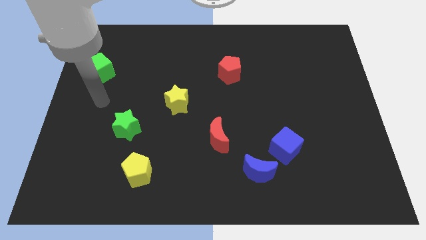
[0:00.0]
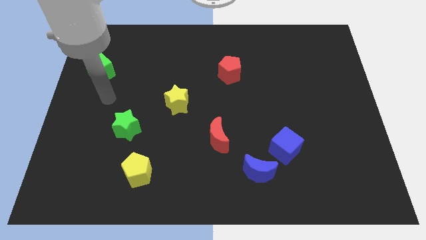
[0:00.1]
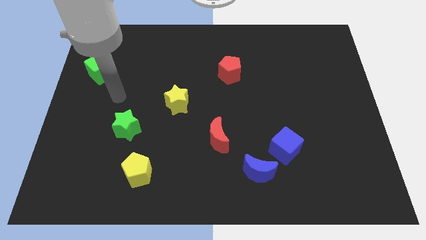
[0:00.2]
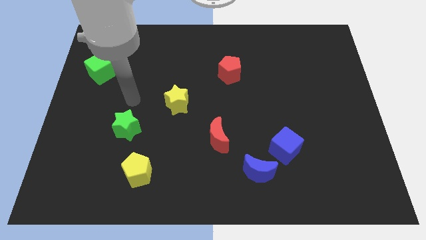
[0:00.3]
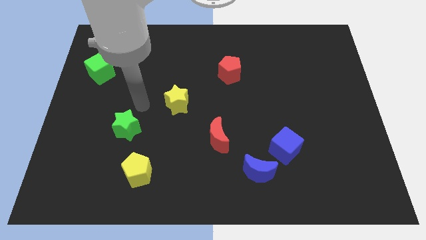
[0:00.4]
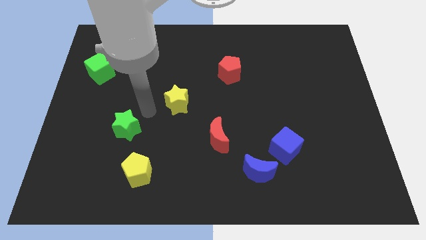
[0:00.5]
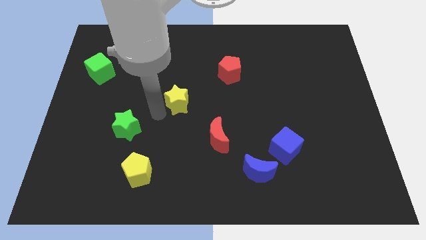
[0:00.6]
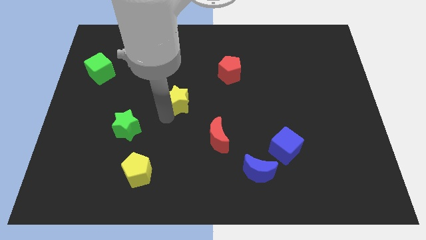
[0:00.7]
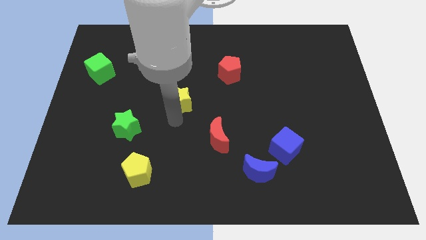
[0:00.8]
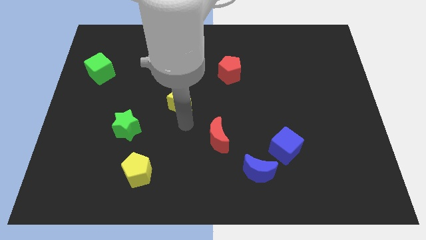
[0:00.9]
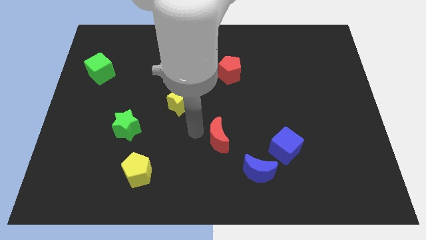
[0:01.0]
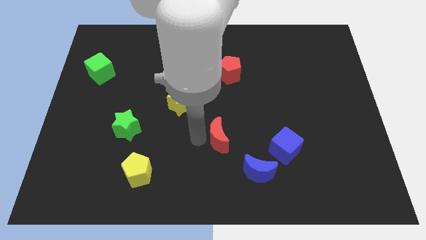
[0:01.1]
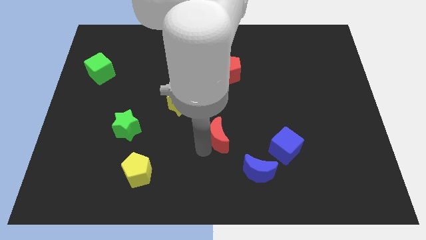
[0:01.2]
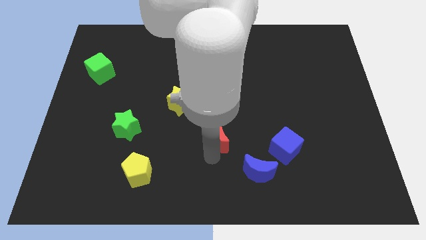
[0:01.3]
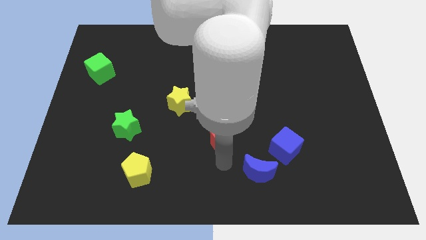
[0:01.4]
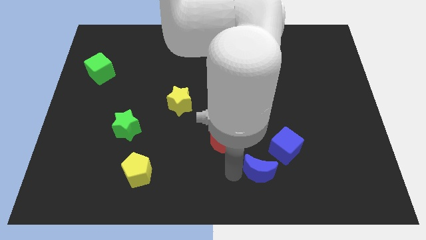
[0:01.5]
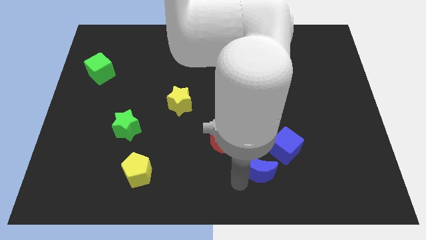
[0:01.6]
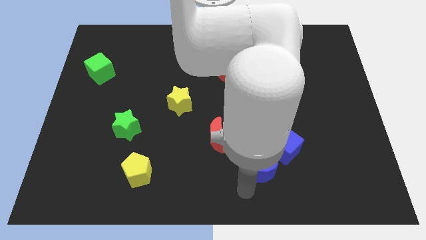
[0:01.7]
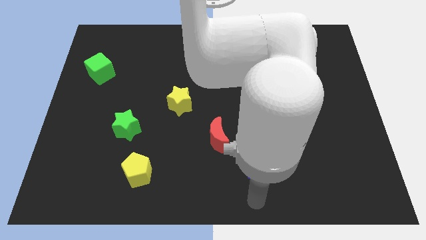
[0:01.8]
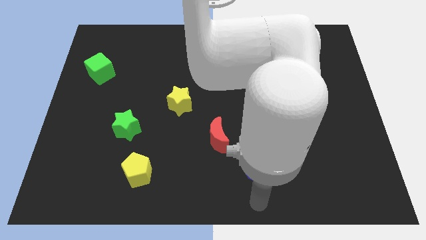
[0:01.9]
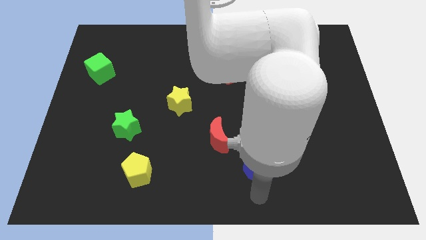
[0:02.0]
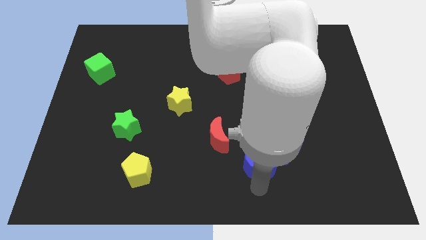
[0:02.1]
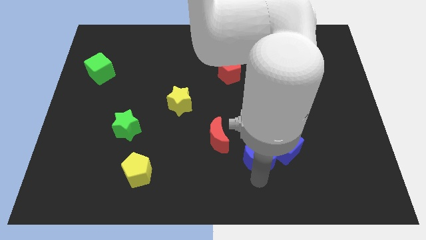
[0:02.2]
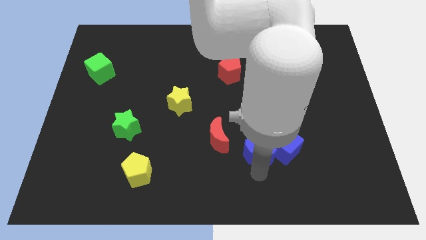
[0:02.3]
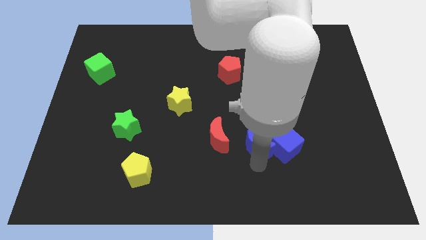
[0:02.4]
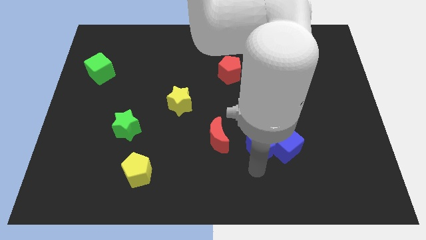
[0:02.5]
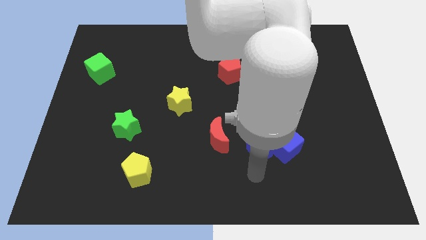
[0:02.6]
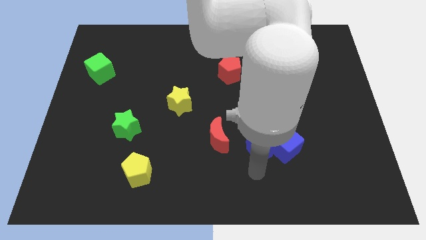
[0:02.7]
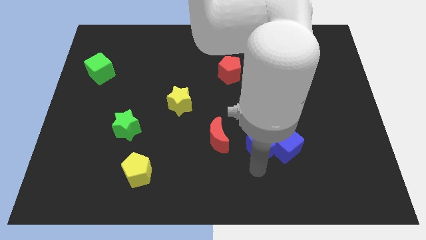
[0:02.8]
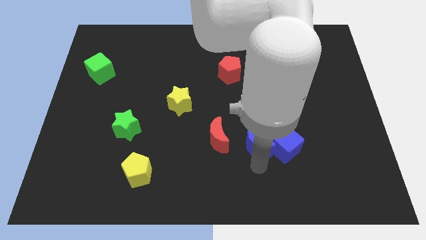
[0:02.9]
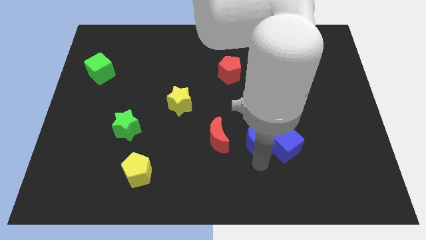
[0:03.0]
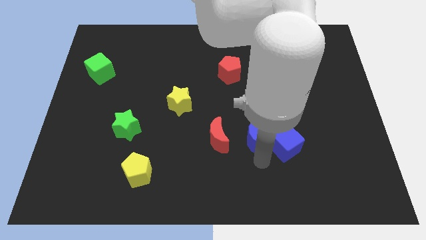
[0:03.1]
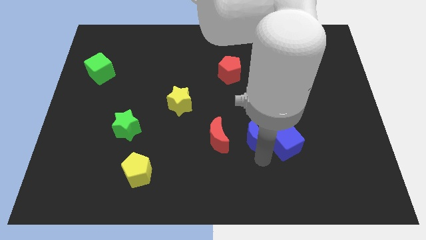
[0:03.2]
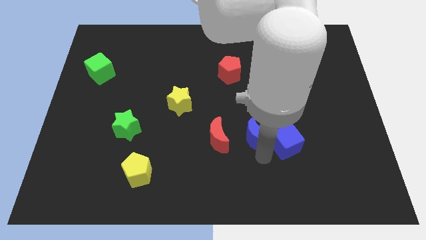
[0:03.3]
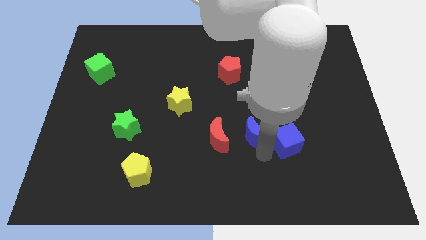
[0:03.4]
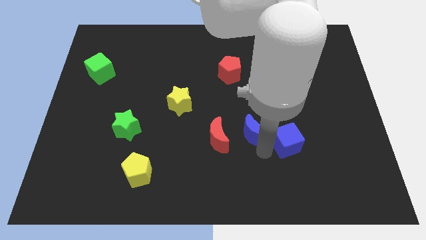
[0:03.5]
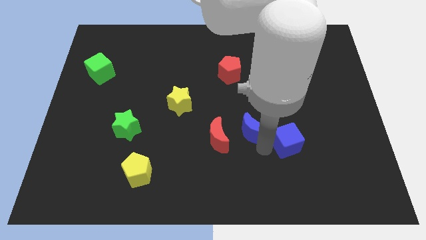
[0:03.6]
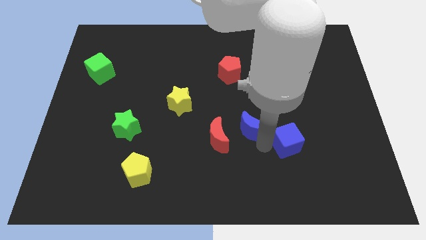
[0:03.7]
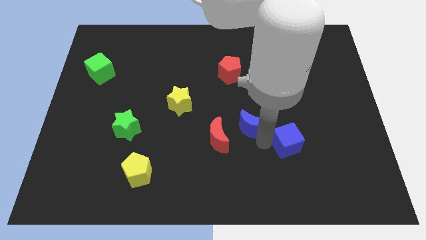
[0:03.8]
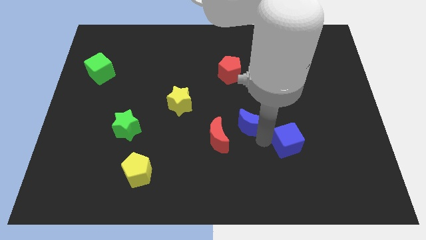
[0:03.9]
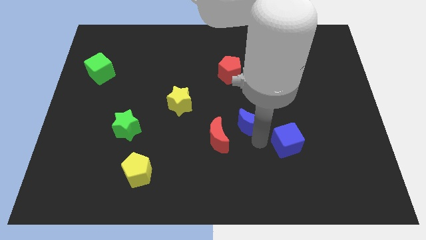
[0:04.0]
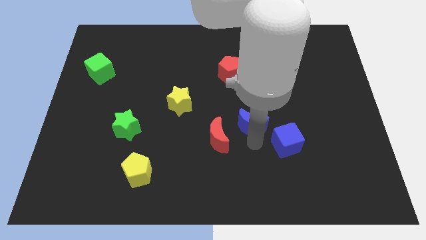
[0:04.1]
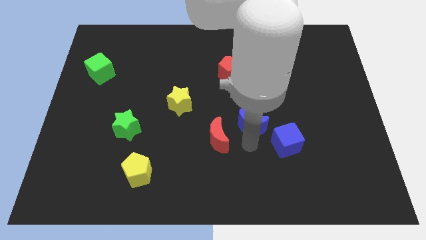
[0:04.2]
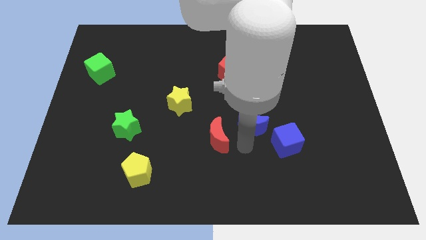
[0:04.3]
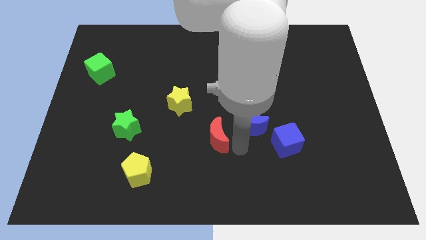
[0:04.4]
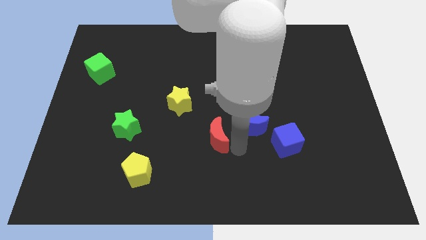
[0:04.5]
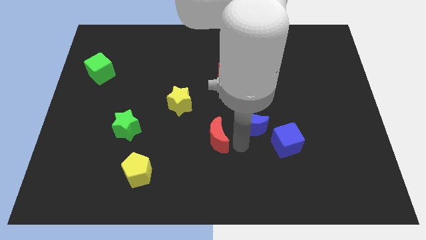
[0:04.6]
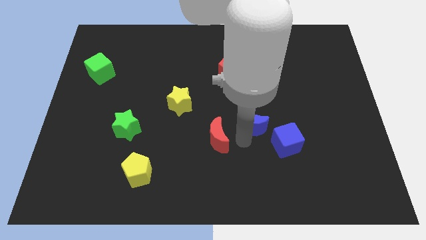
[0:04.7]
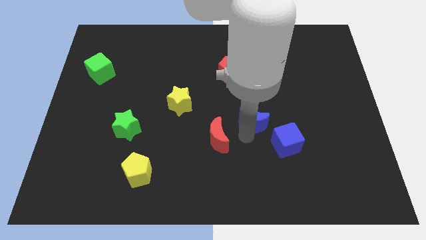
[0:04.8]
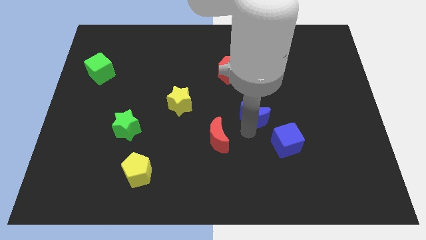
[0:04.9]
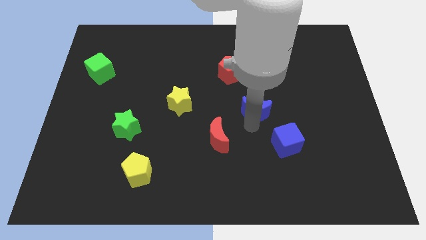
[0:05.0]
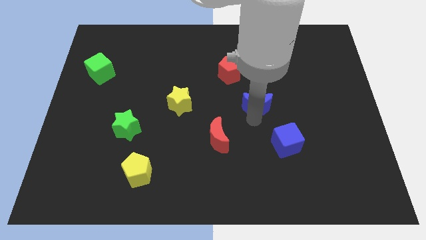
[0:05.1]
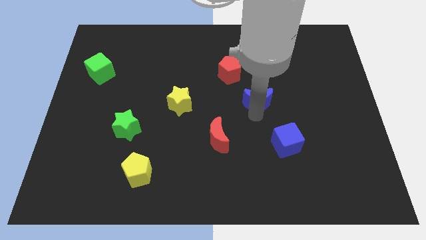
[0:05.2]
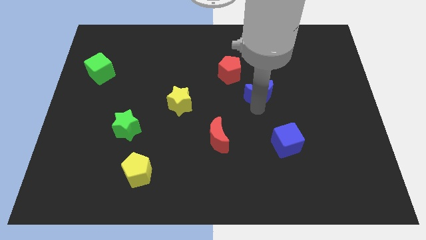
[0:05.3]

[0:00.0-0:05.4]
slide the blue moon up

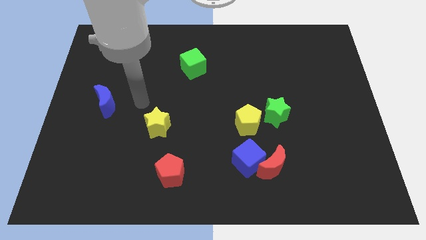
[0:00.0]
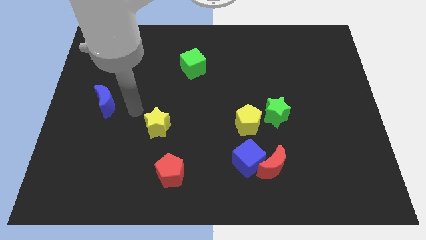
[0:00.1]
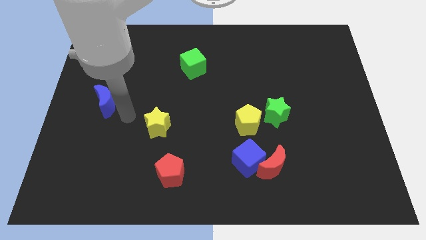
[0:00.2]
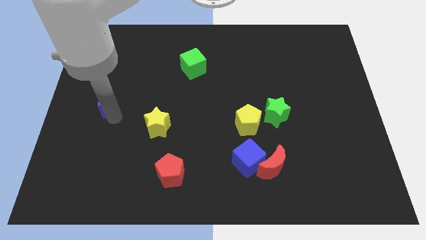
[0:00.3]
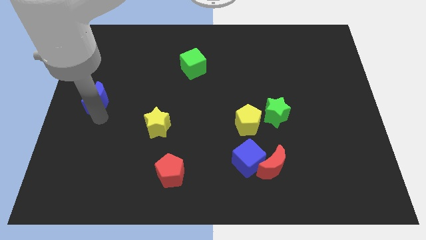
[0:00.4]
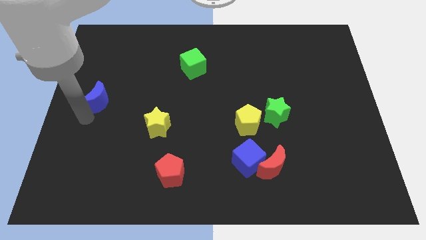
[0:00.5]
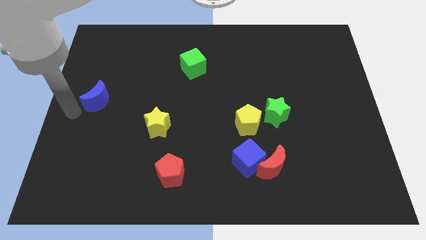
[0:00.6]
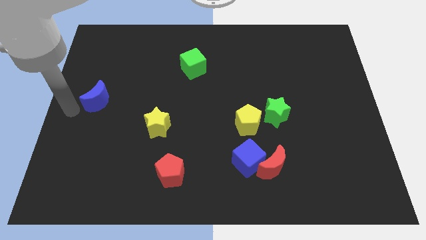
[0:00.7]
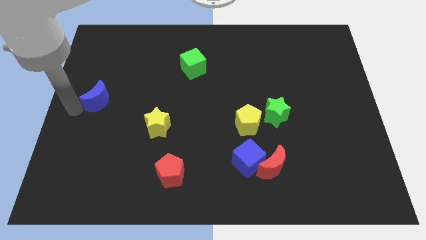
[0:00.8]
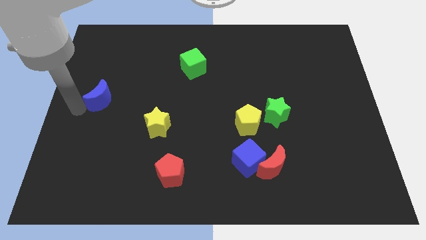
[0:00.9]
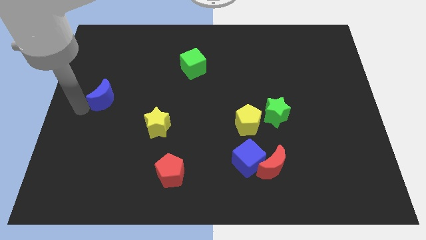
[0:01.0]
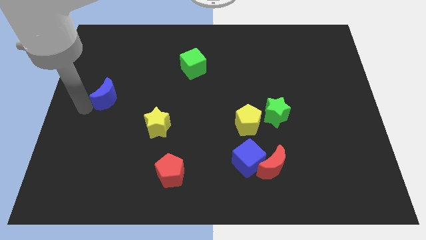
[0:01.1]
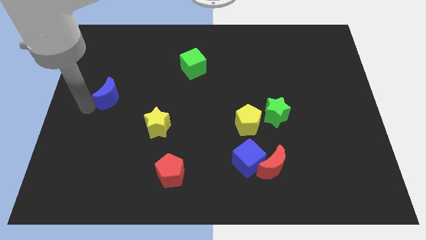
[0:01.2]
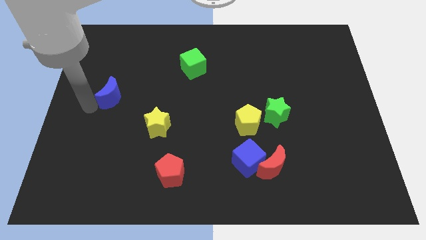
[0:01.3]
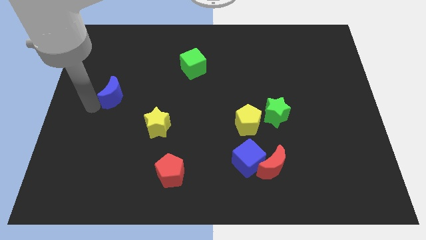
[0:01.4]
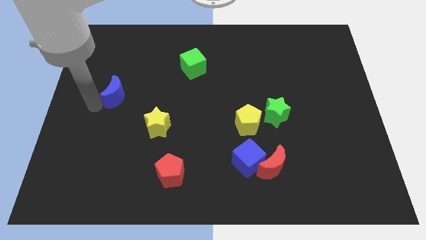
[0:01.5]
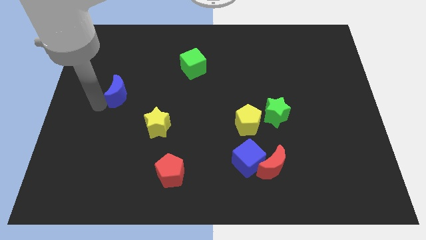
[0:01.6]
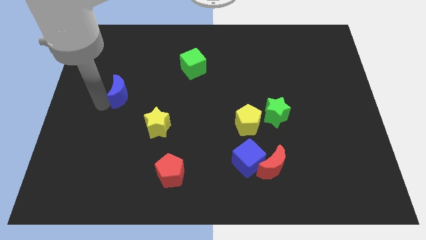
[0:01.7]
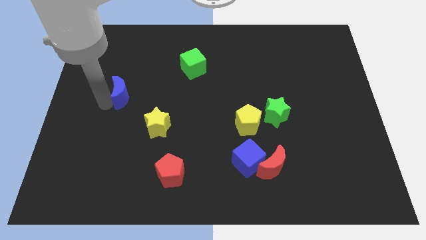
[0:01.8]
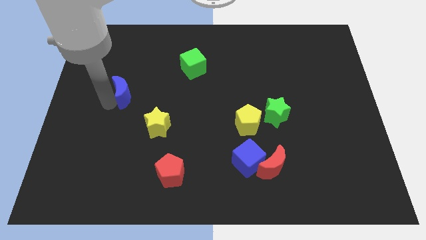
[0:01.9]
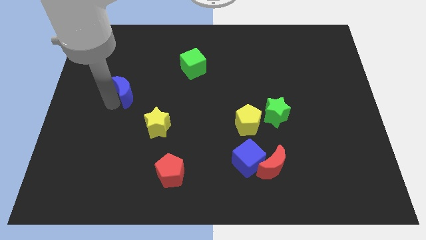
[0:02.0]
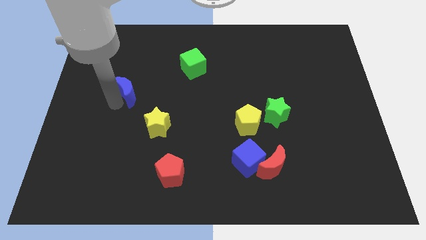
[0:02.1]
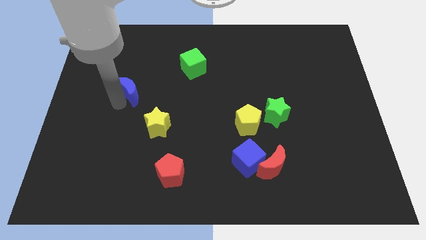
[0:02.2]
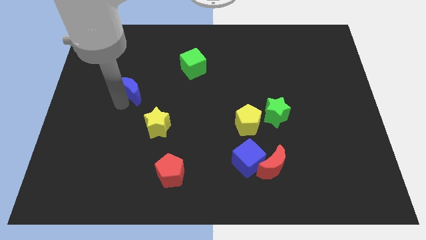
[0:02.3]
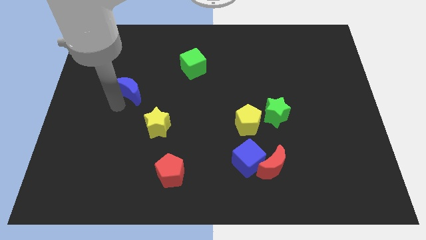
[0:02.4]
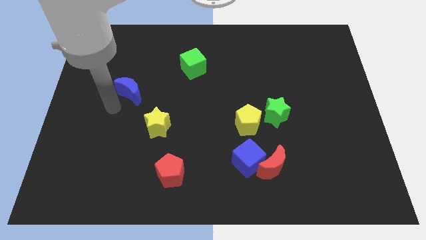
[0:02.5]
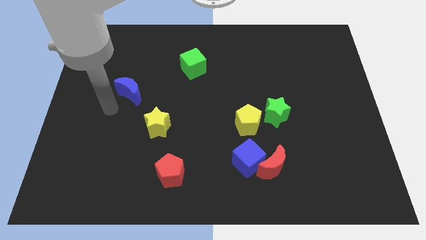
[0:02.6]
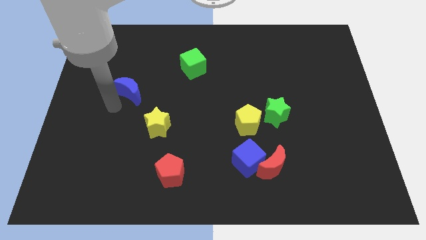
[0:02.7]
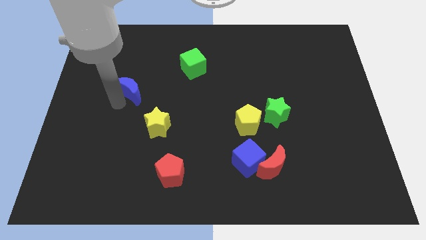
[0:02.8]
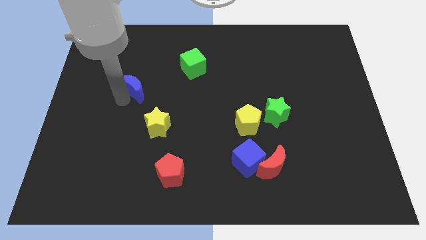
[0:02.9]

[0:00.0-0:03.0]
slightly push the blue moon diagonally upwards and to the right
